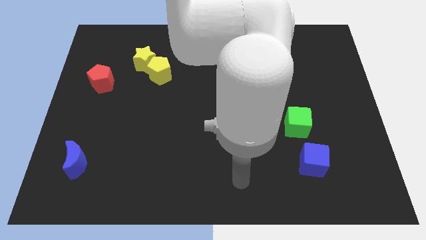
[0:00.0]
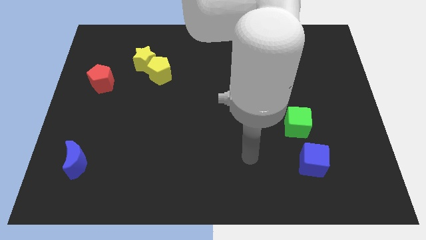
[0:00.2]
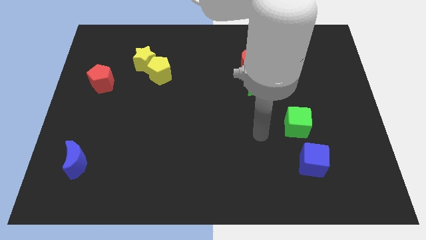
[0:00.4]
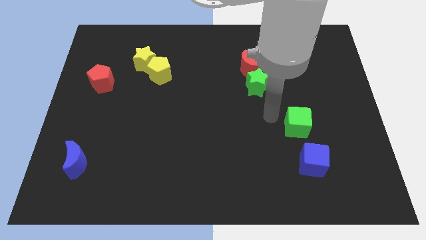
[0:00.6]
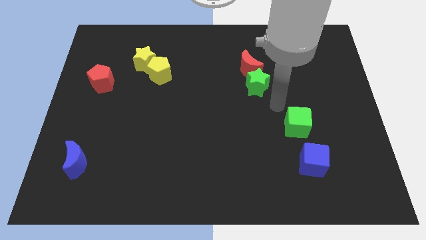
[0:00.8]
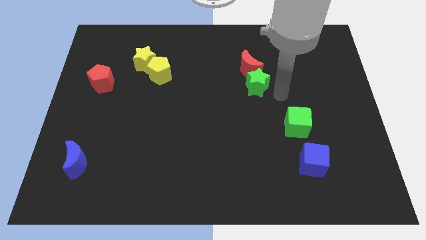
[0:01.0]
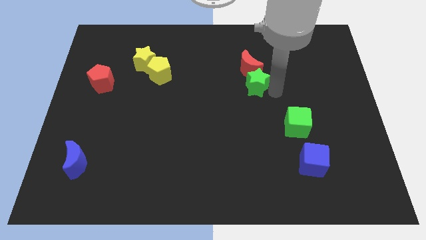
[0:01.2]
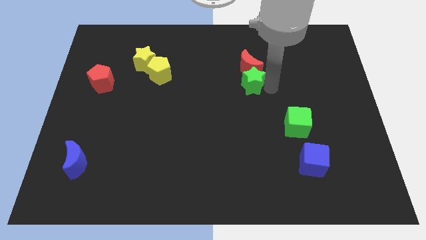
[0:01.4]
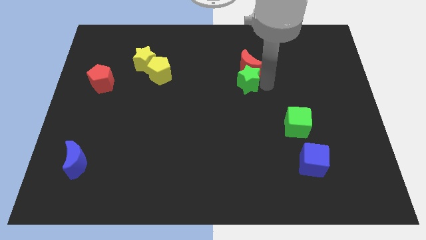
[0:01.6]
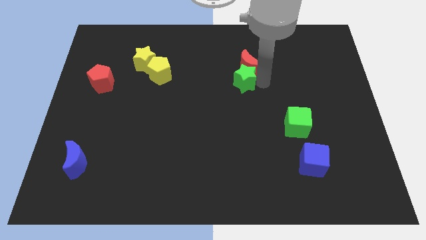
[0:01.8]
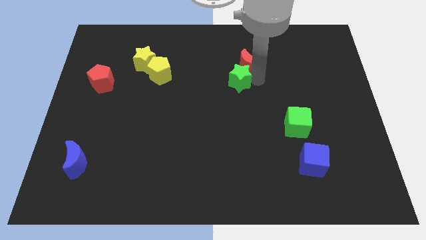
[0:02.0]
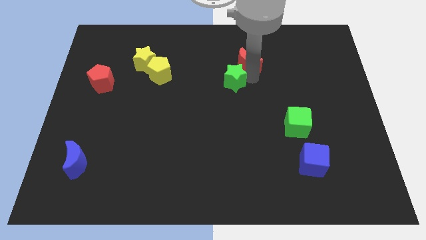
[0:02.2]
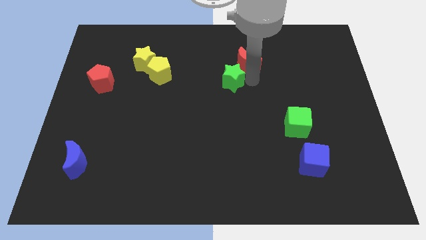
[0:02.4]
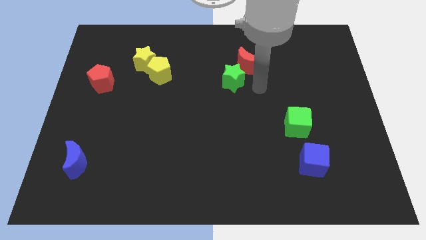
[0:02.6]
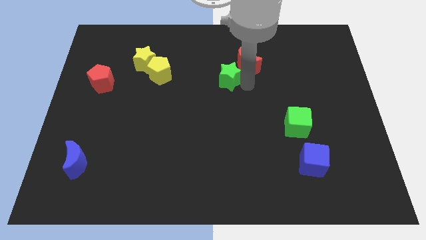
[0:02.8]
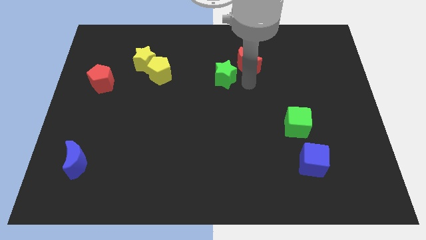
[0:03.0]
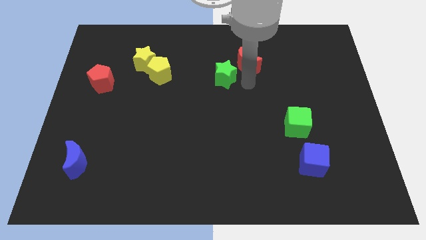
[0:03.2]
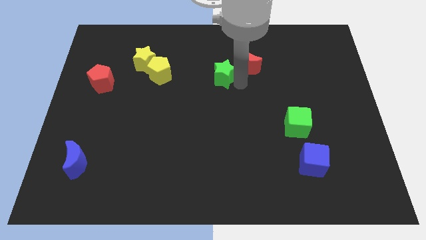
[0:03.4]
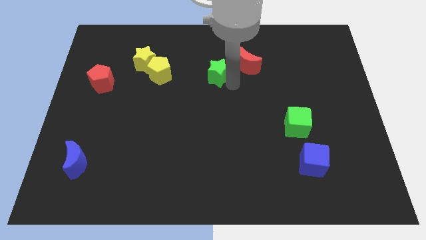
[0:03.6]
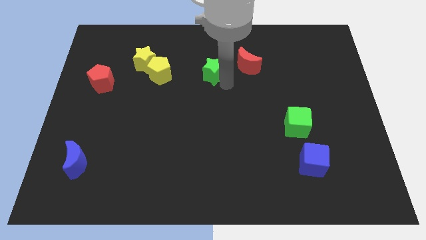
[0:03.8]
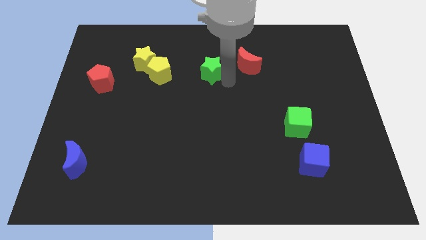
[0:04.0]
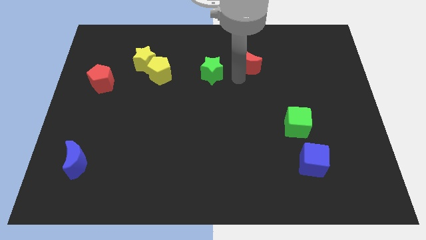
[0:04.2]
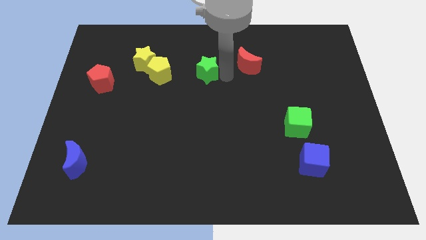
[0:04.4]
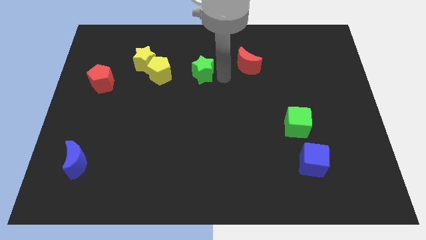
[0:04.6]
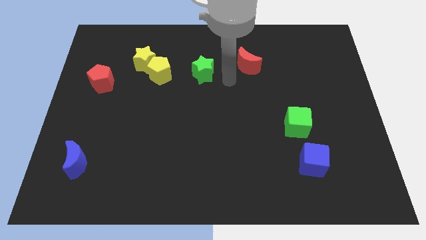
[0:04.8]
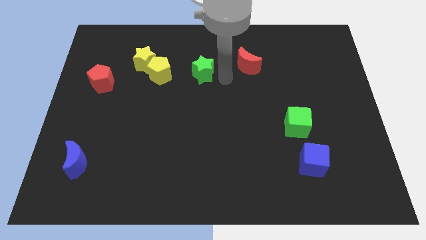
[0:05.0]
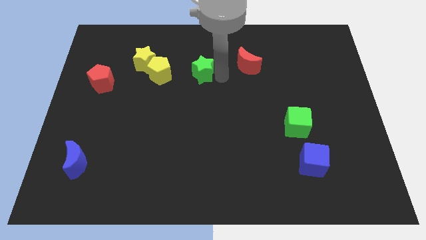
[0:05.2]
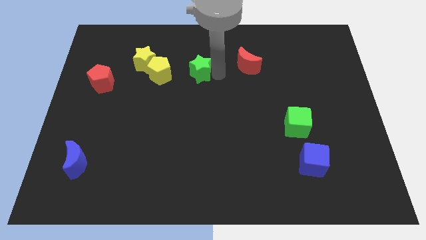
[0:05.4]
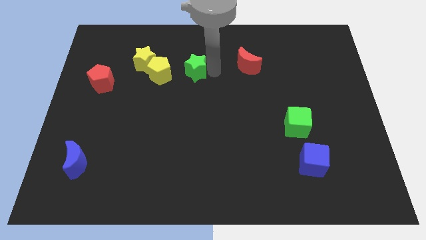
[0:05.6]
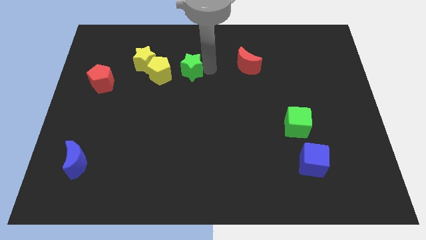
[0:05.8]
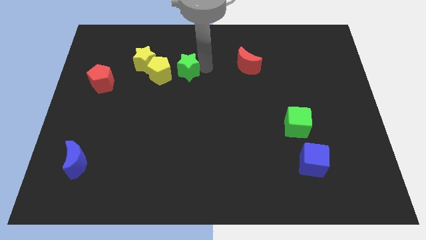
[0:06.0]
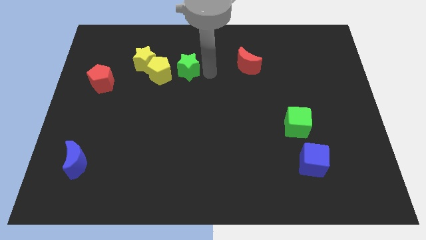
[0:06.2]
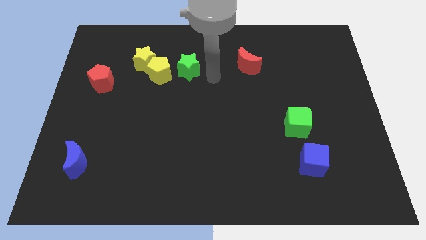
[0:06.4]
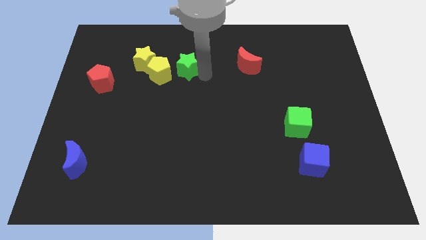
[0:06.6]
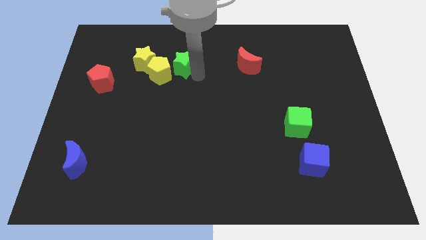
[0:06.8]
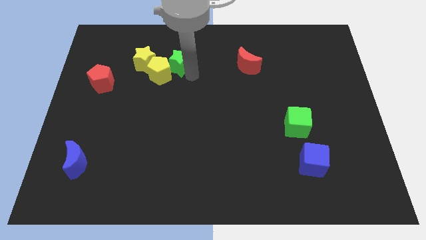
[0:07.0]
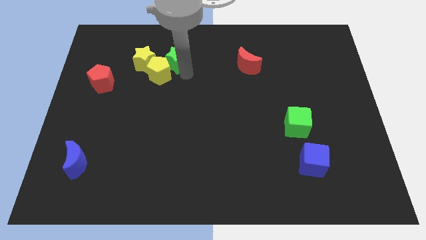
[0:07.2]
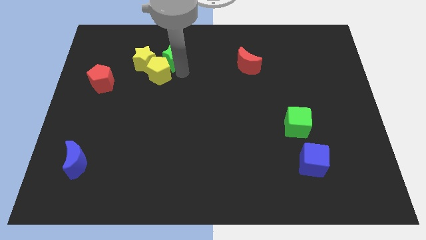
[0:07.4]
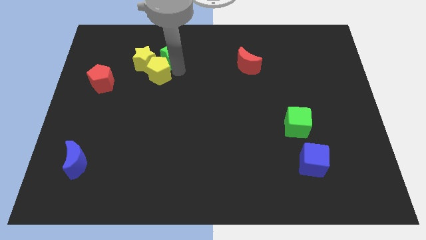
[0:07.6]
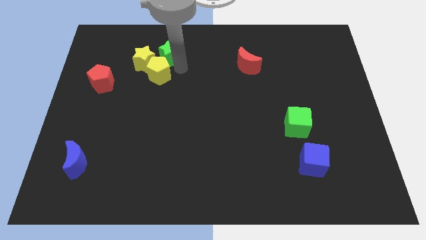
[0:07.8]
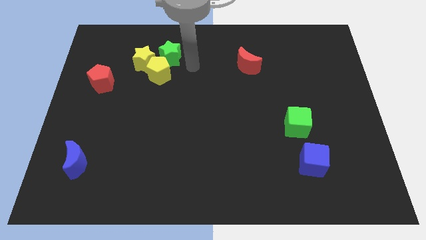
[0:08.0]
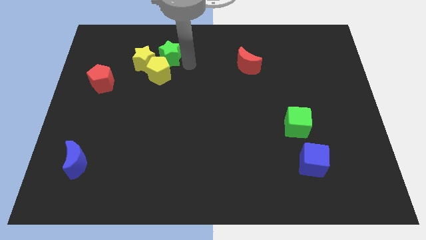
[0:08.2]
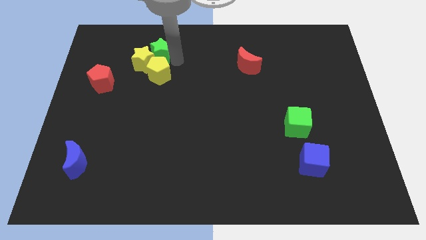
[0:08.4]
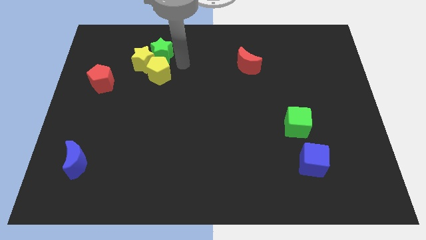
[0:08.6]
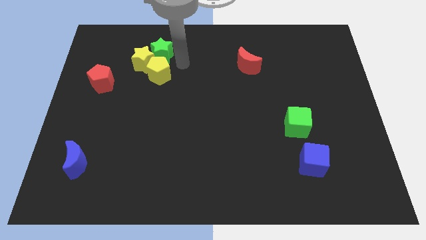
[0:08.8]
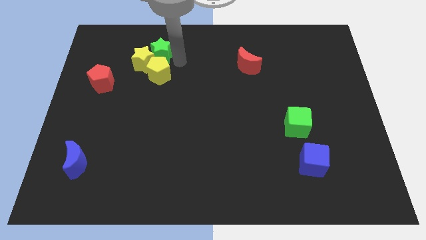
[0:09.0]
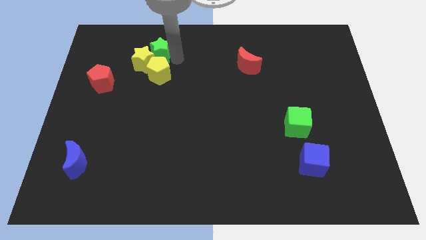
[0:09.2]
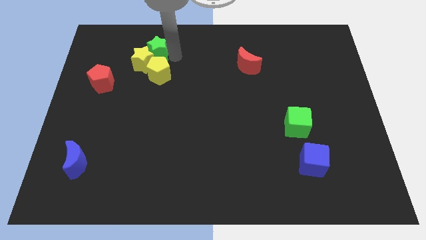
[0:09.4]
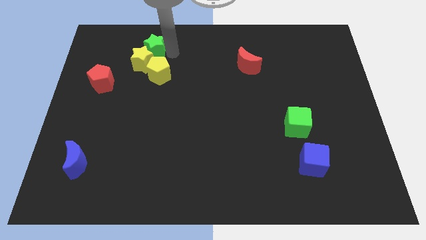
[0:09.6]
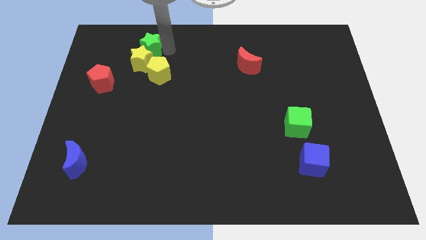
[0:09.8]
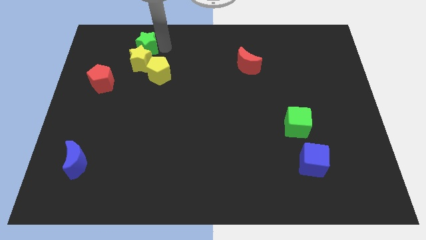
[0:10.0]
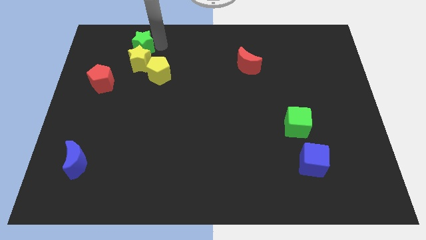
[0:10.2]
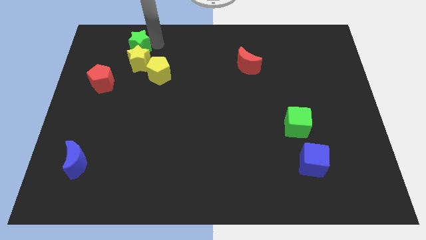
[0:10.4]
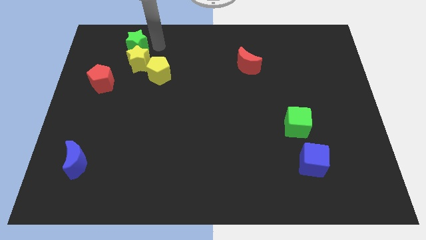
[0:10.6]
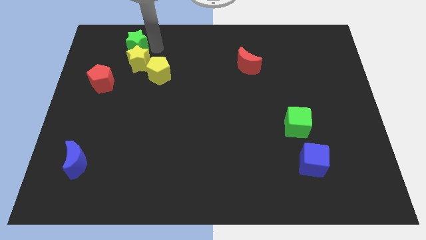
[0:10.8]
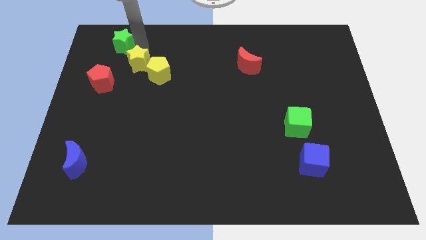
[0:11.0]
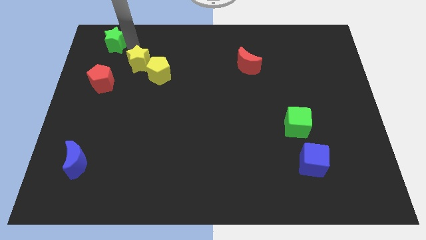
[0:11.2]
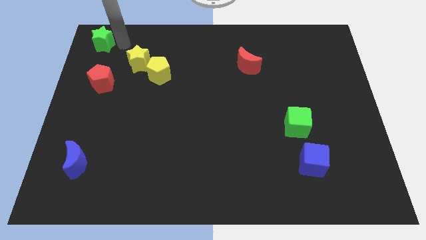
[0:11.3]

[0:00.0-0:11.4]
push the green star to the top left

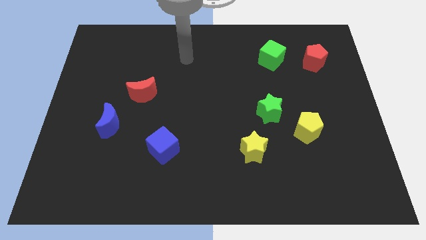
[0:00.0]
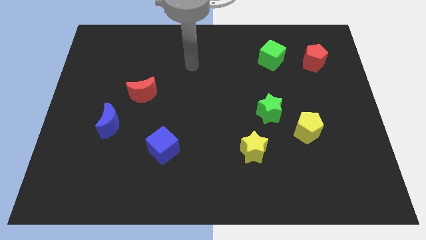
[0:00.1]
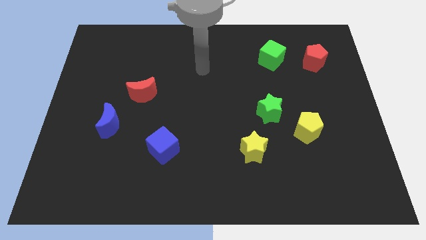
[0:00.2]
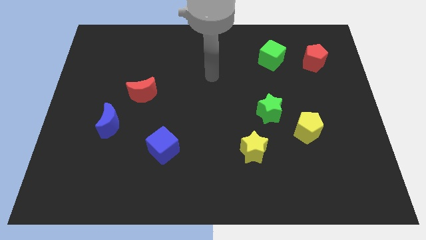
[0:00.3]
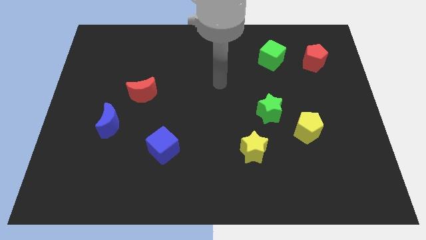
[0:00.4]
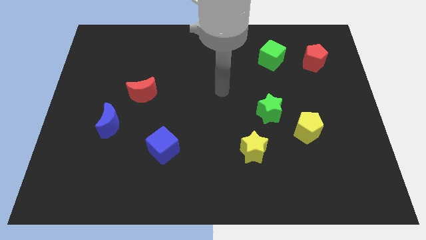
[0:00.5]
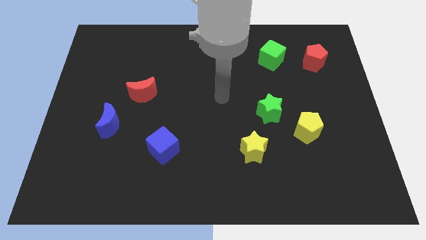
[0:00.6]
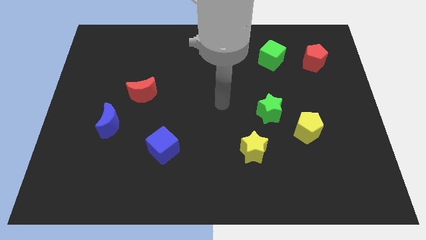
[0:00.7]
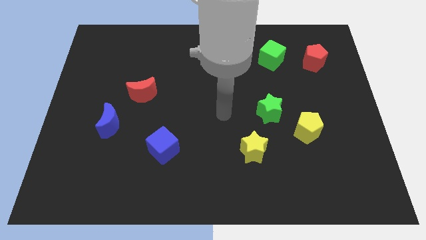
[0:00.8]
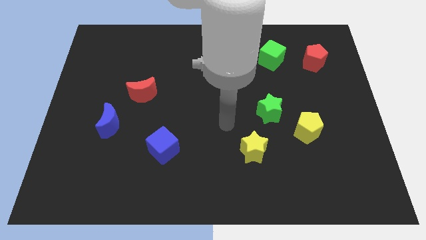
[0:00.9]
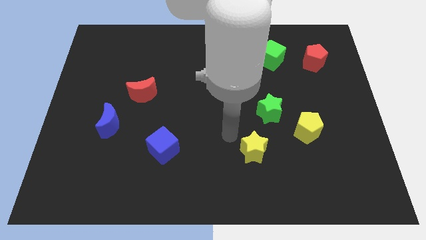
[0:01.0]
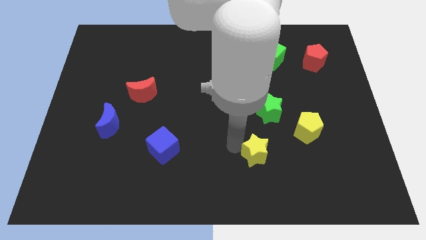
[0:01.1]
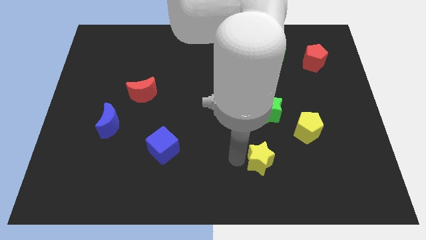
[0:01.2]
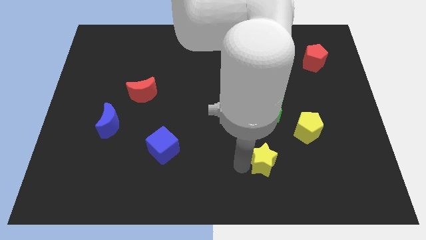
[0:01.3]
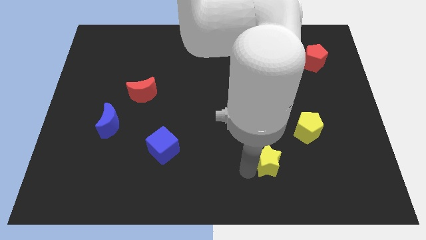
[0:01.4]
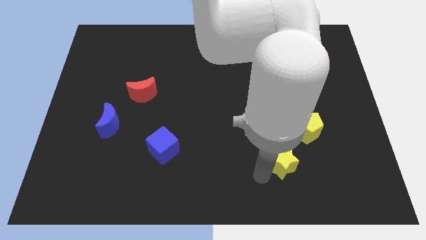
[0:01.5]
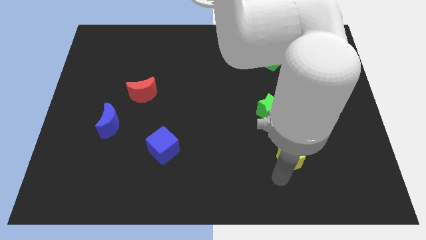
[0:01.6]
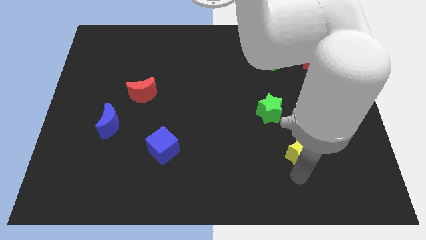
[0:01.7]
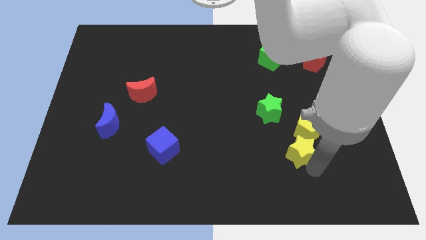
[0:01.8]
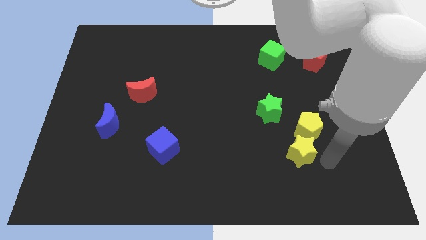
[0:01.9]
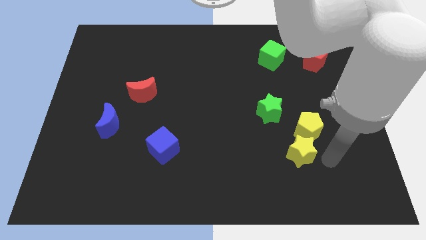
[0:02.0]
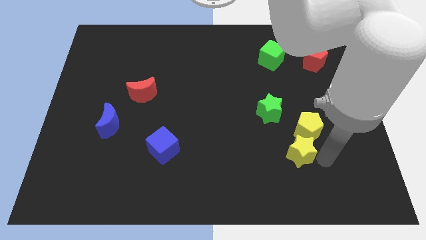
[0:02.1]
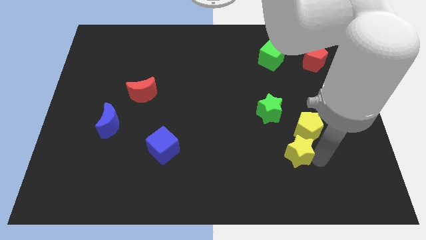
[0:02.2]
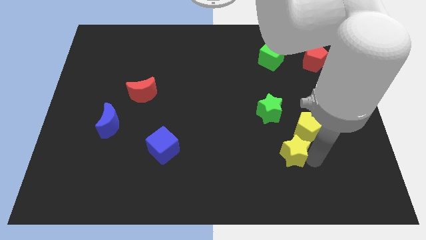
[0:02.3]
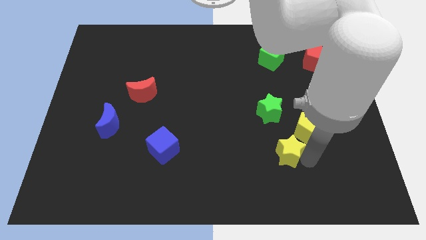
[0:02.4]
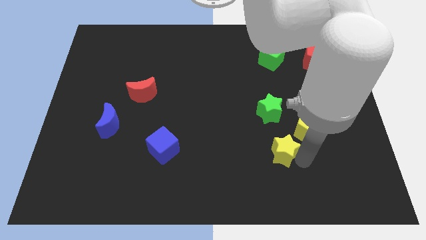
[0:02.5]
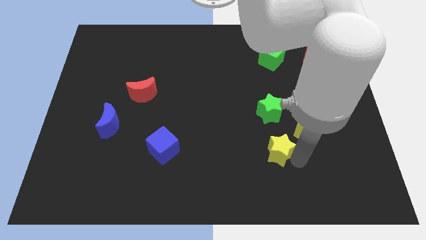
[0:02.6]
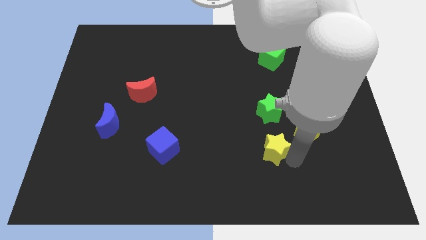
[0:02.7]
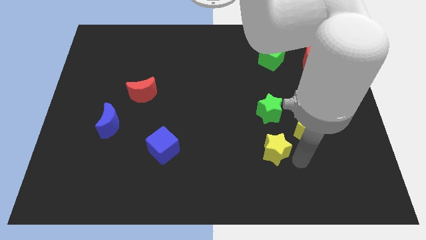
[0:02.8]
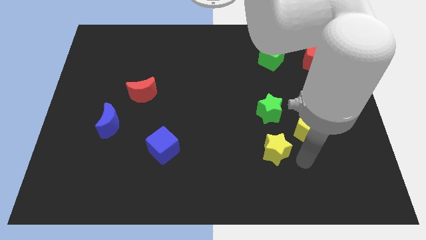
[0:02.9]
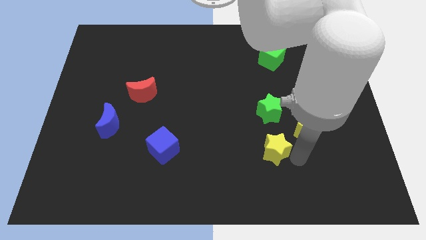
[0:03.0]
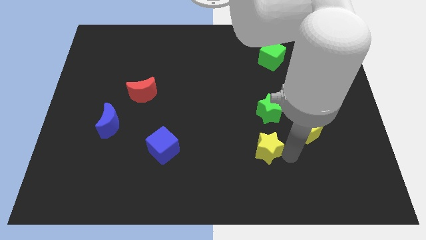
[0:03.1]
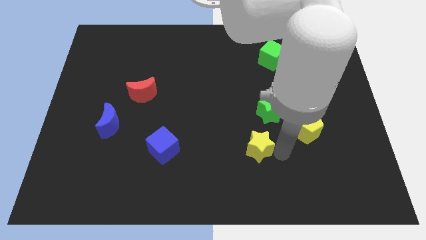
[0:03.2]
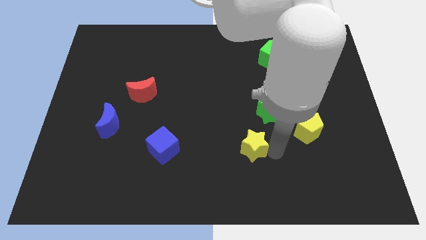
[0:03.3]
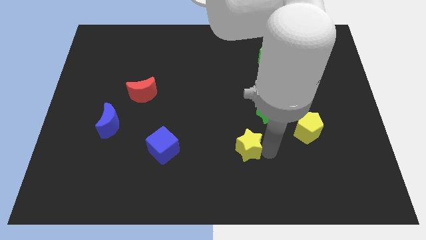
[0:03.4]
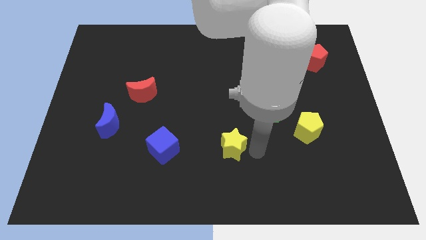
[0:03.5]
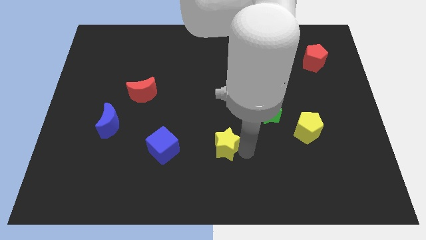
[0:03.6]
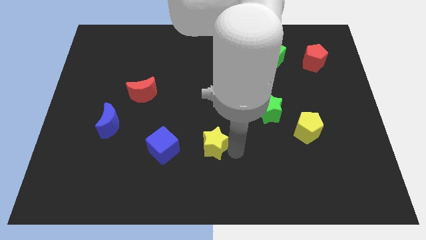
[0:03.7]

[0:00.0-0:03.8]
push the yellow star to the middle of the board
